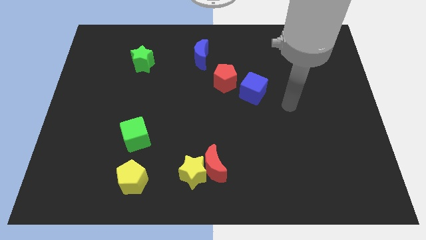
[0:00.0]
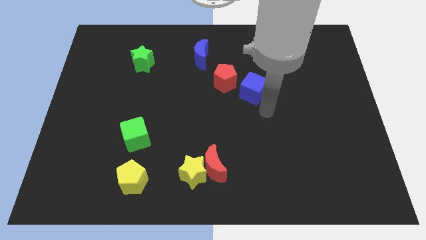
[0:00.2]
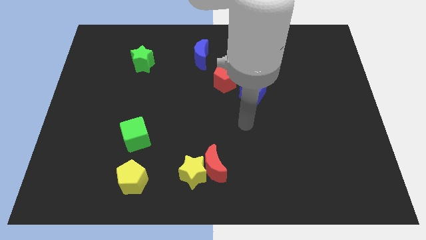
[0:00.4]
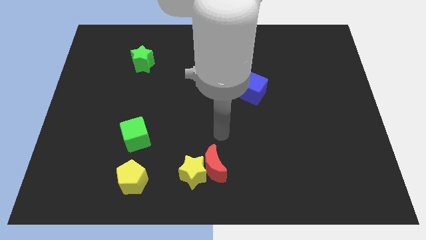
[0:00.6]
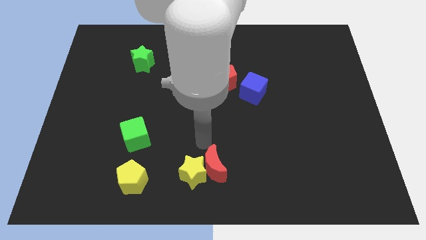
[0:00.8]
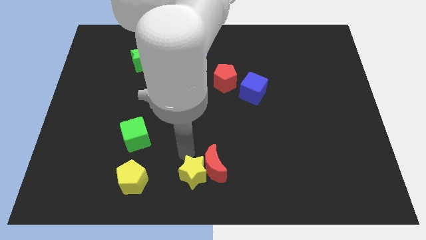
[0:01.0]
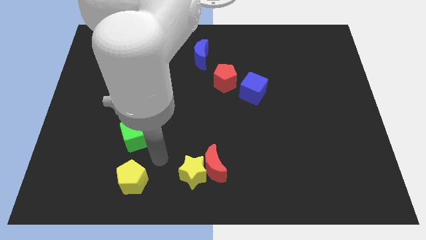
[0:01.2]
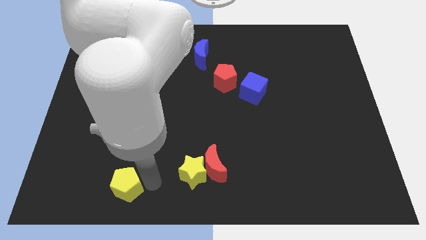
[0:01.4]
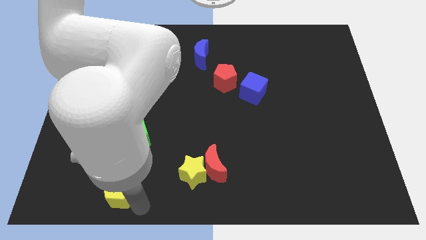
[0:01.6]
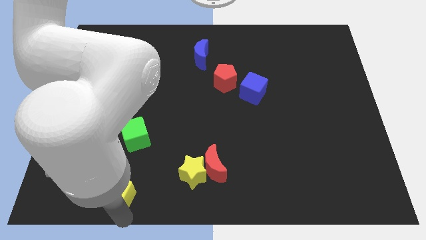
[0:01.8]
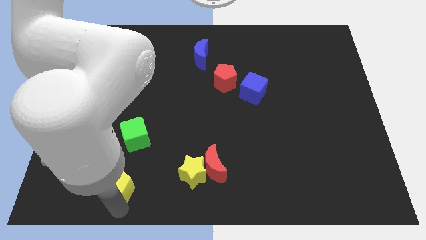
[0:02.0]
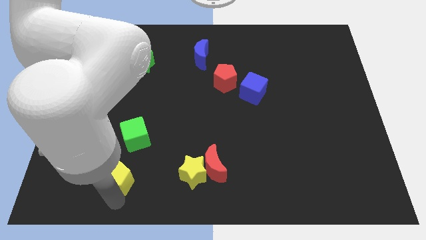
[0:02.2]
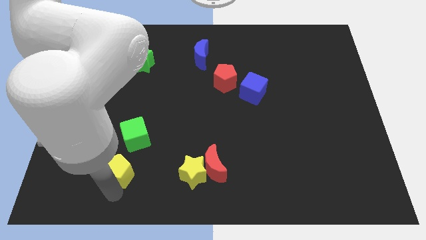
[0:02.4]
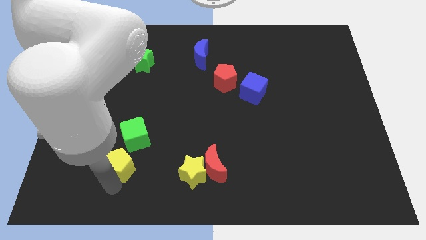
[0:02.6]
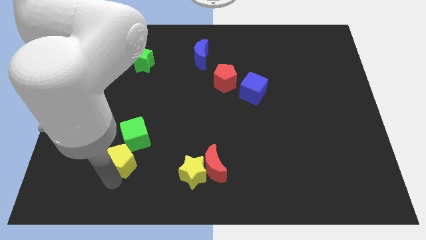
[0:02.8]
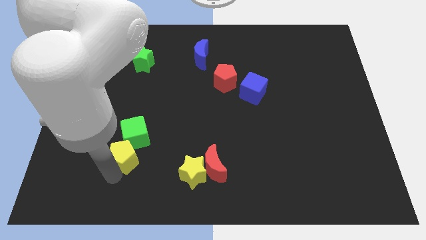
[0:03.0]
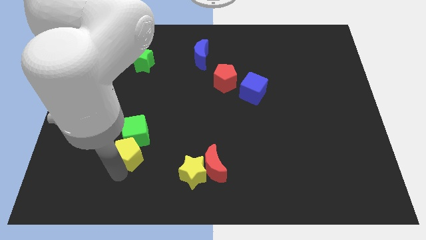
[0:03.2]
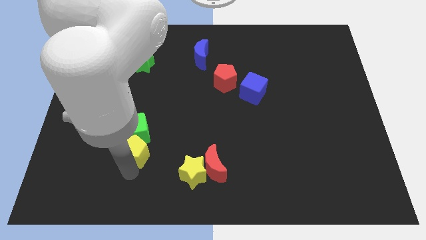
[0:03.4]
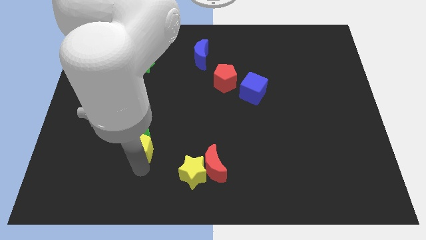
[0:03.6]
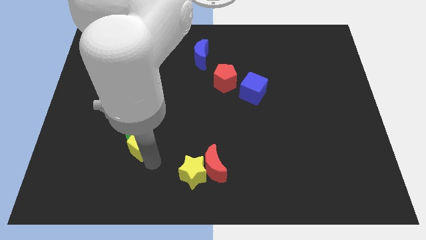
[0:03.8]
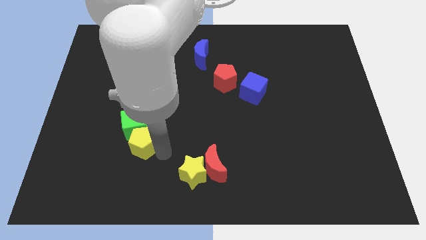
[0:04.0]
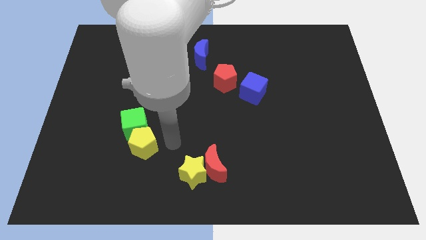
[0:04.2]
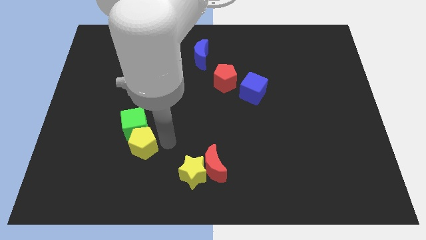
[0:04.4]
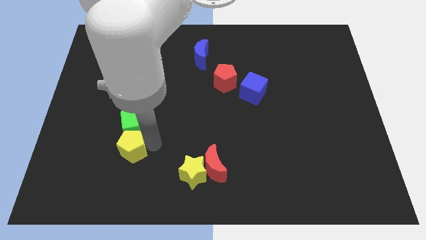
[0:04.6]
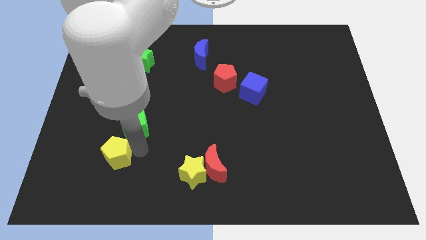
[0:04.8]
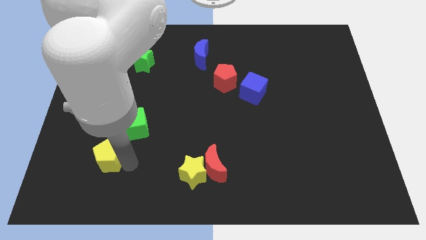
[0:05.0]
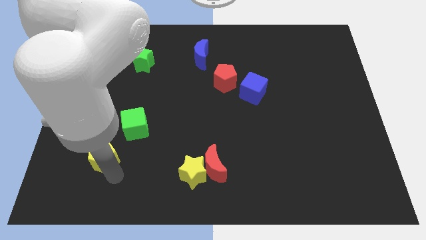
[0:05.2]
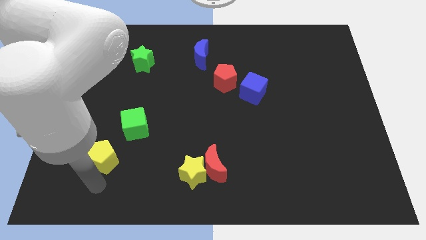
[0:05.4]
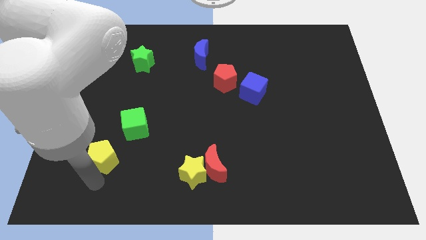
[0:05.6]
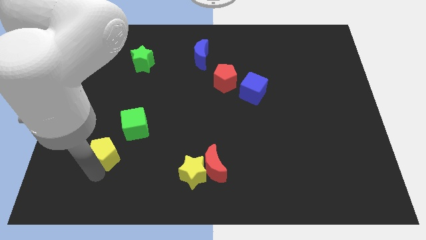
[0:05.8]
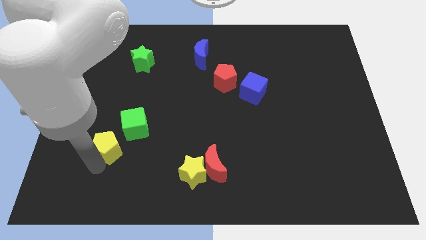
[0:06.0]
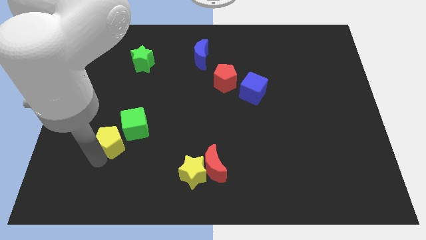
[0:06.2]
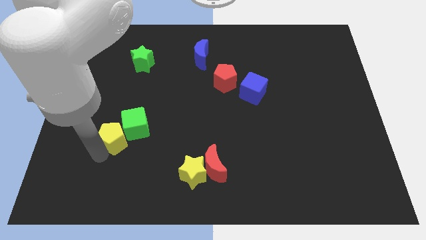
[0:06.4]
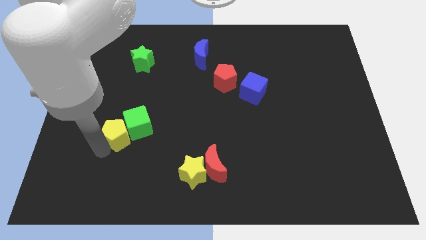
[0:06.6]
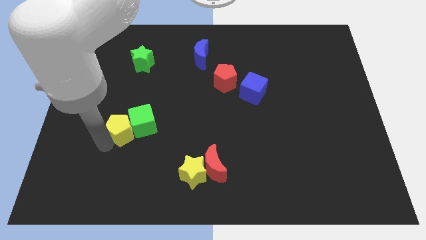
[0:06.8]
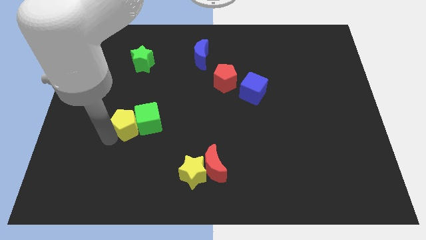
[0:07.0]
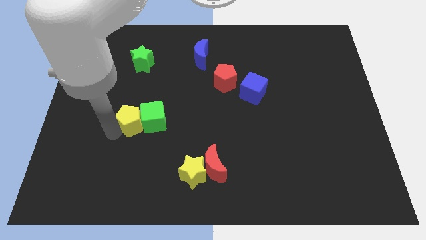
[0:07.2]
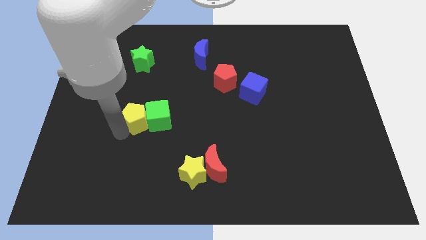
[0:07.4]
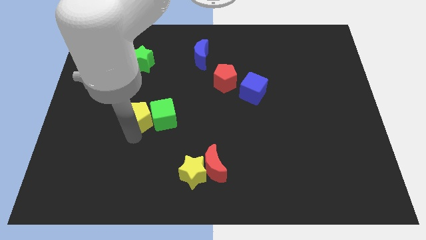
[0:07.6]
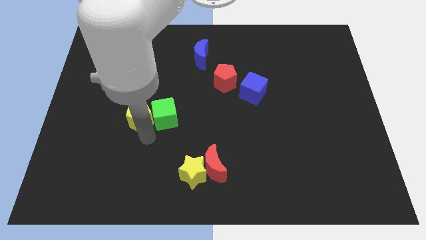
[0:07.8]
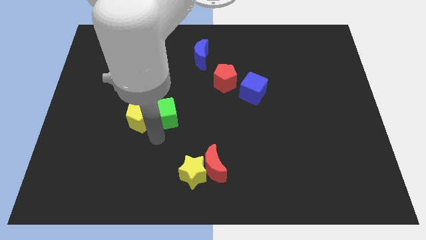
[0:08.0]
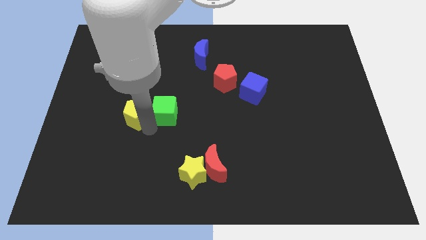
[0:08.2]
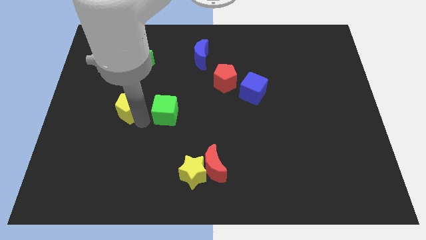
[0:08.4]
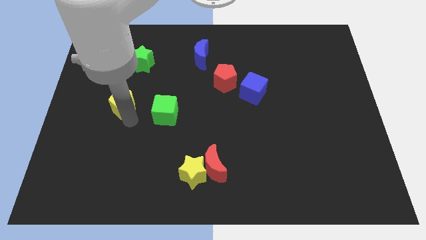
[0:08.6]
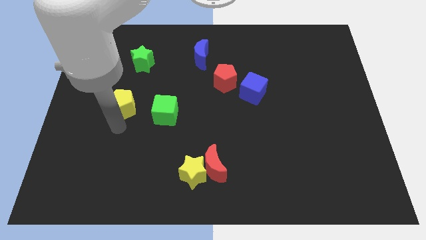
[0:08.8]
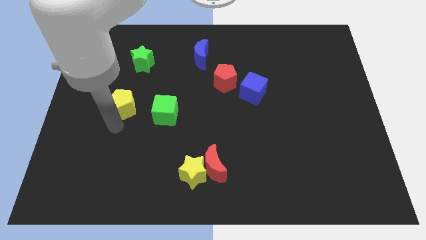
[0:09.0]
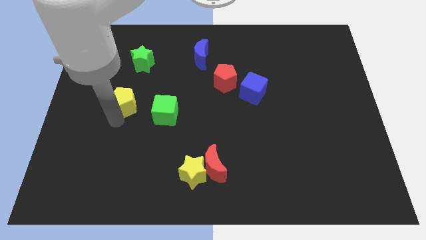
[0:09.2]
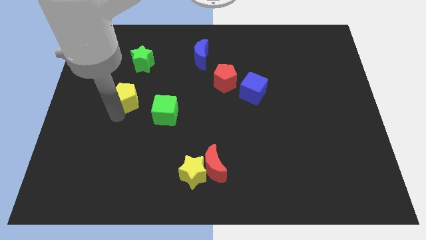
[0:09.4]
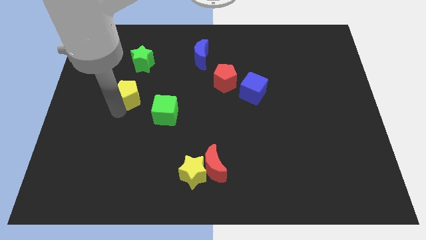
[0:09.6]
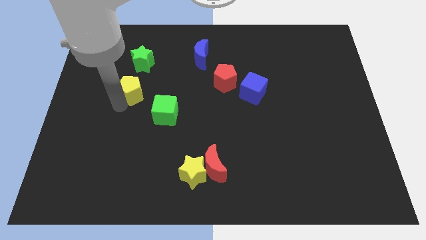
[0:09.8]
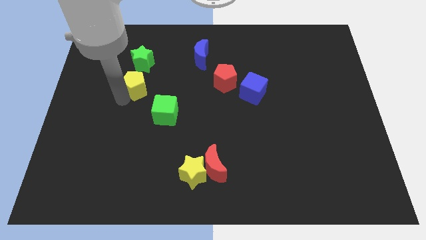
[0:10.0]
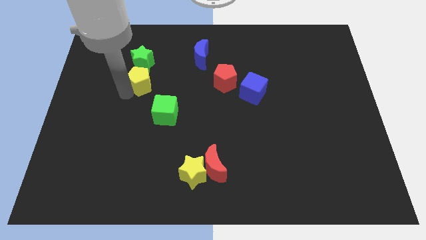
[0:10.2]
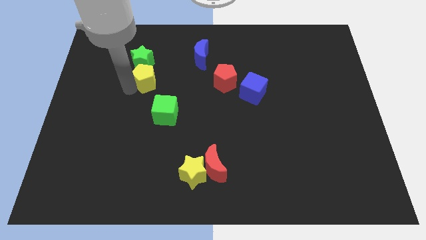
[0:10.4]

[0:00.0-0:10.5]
slide the yellow pentagon to the green star

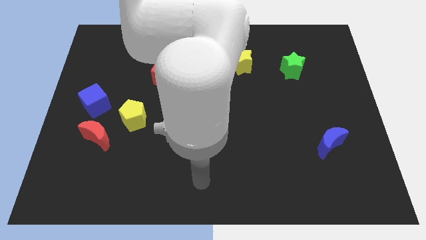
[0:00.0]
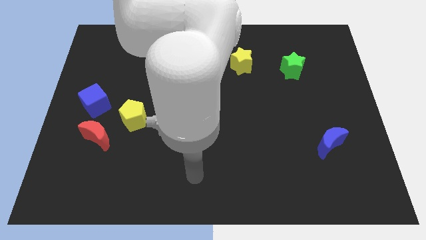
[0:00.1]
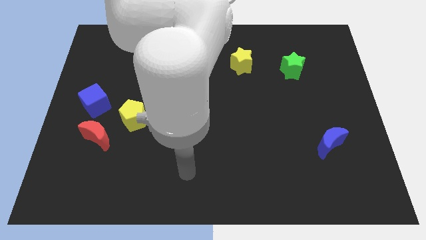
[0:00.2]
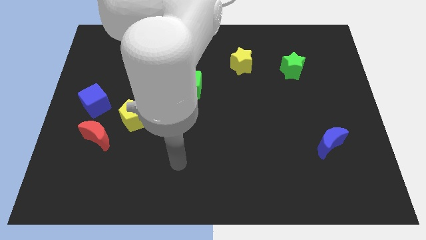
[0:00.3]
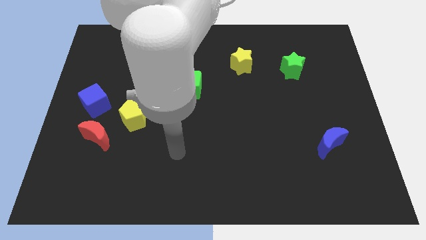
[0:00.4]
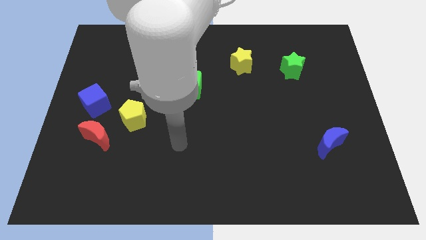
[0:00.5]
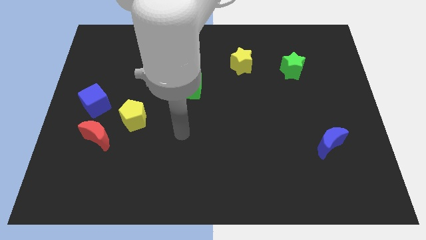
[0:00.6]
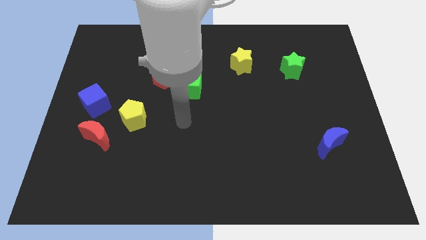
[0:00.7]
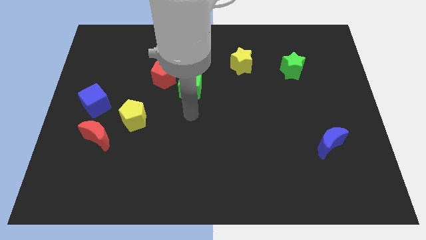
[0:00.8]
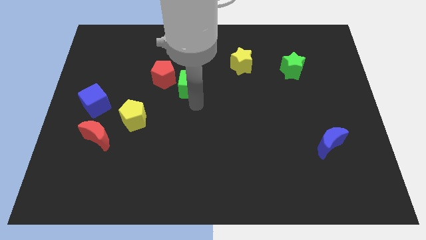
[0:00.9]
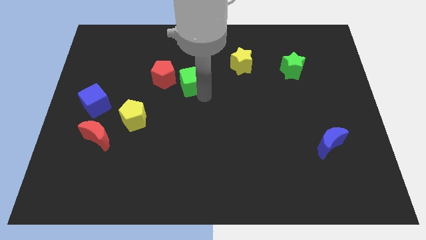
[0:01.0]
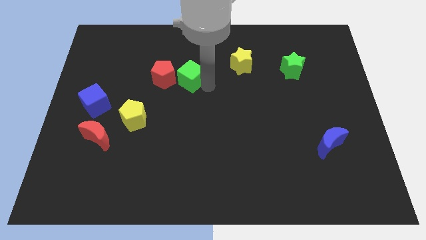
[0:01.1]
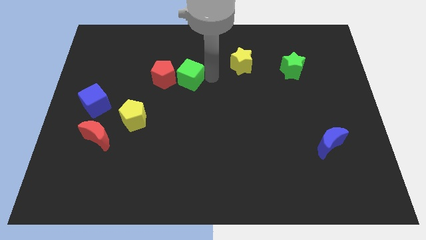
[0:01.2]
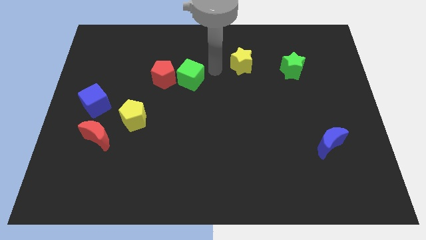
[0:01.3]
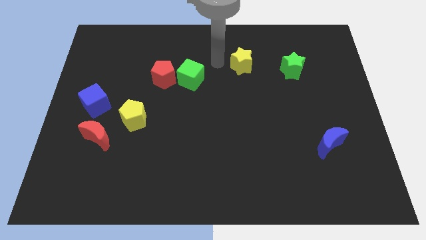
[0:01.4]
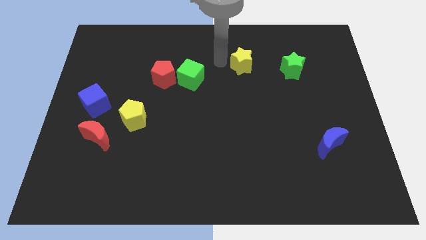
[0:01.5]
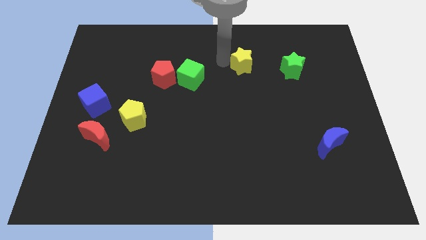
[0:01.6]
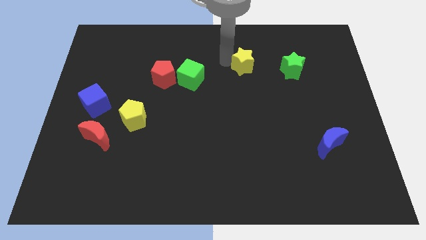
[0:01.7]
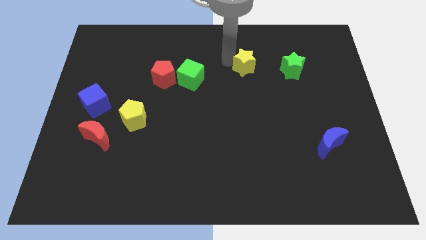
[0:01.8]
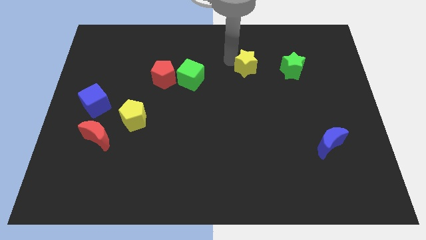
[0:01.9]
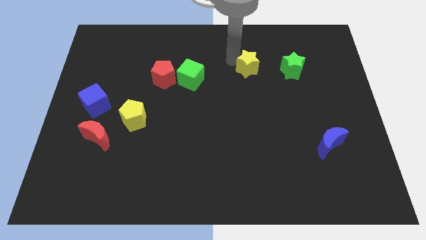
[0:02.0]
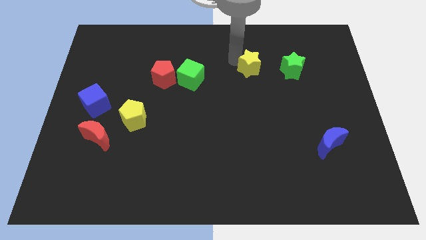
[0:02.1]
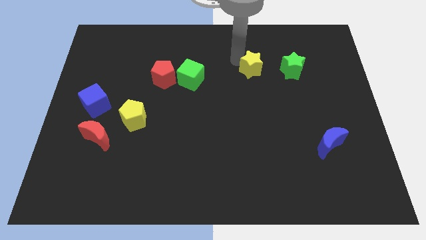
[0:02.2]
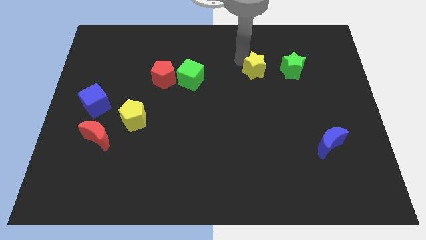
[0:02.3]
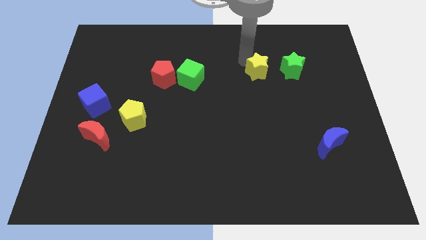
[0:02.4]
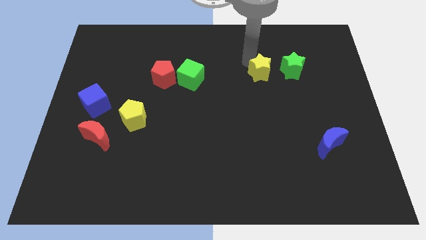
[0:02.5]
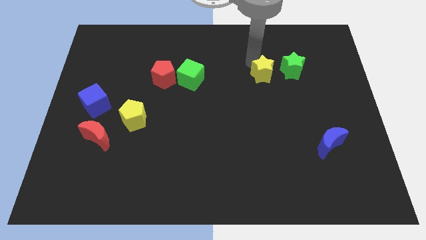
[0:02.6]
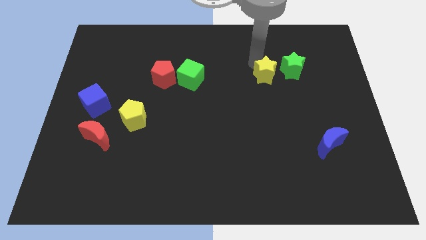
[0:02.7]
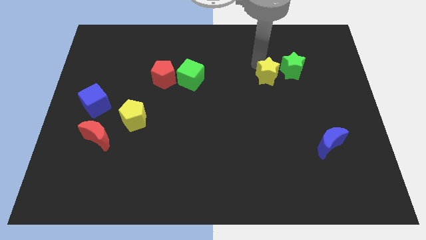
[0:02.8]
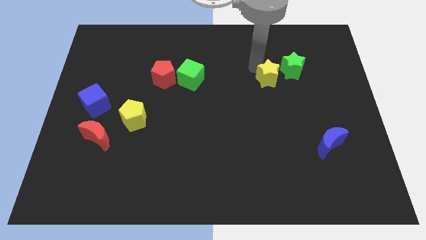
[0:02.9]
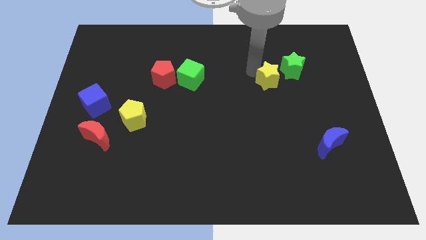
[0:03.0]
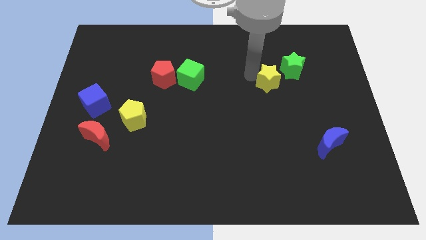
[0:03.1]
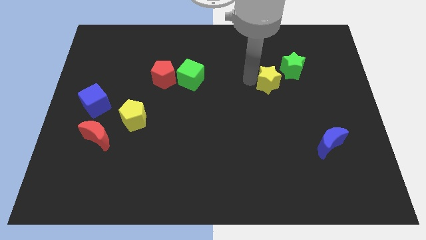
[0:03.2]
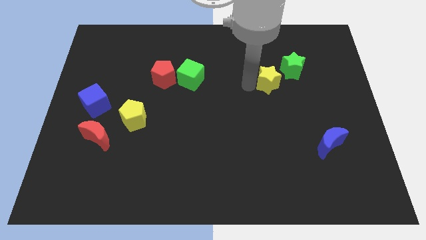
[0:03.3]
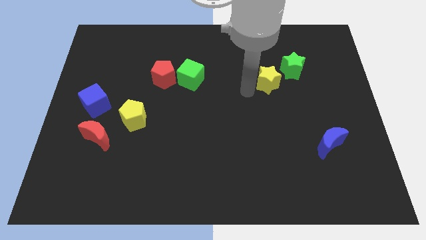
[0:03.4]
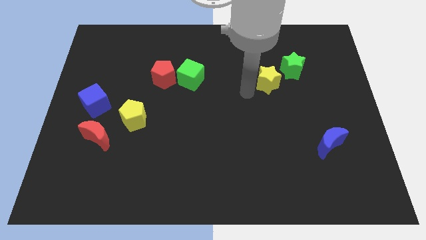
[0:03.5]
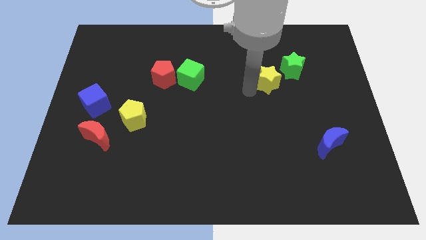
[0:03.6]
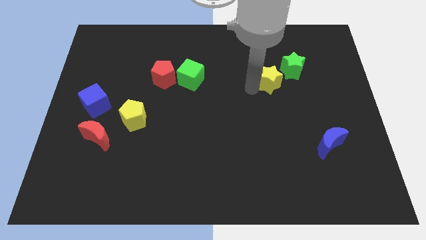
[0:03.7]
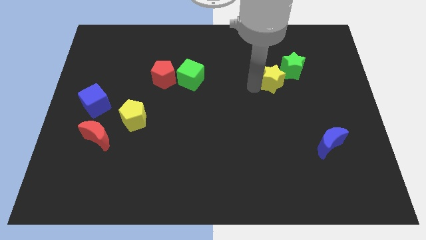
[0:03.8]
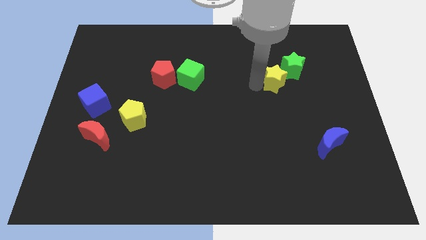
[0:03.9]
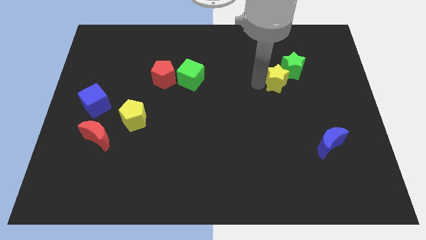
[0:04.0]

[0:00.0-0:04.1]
push the yellow star close to the green star
